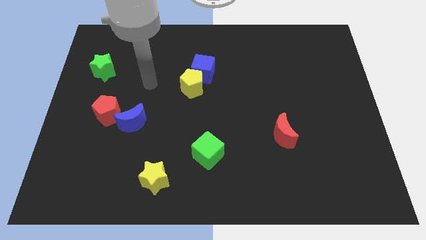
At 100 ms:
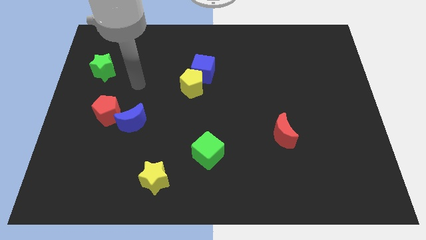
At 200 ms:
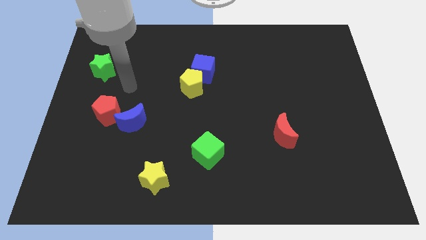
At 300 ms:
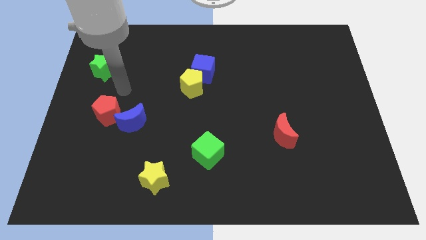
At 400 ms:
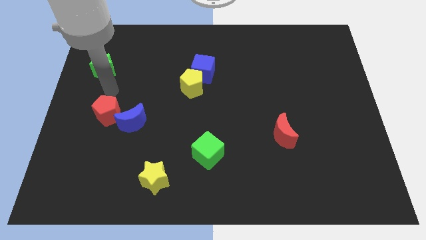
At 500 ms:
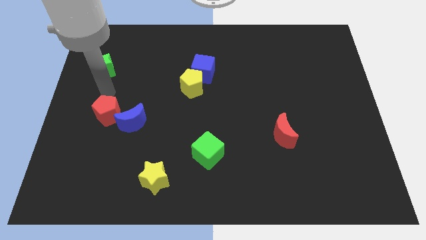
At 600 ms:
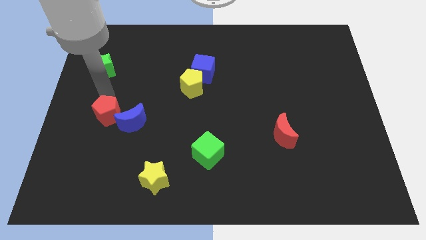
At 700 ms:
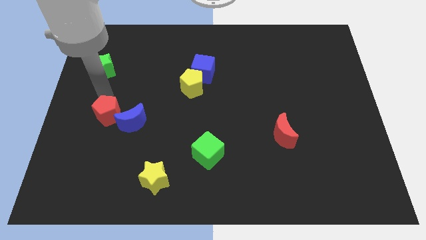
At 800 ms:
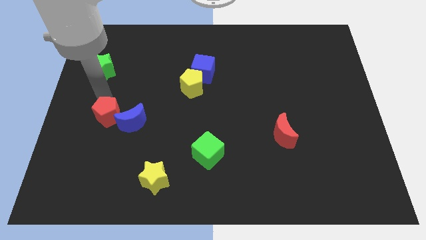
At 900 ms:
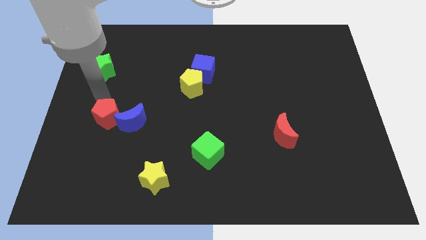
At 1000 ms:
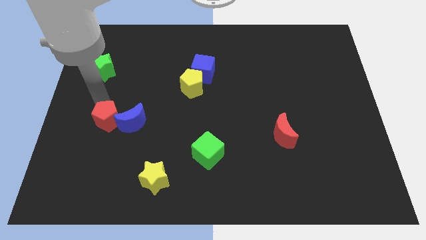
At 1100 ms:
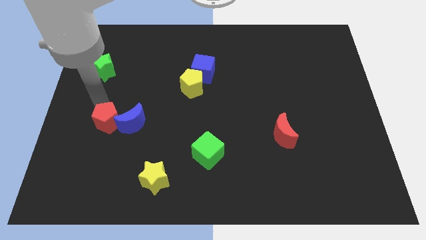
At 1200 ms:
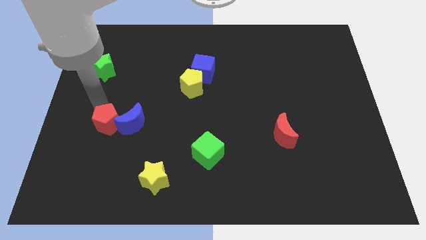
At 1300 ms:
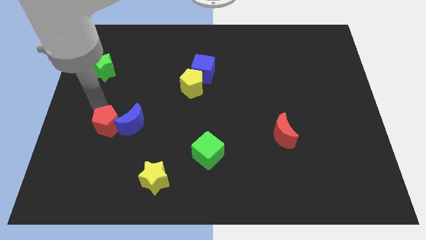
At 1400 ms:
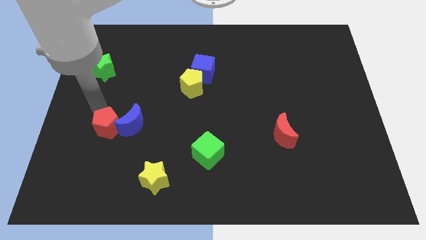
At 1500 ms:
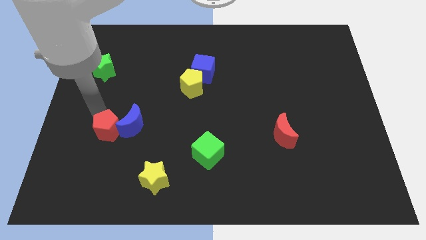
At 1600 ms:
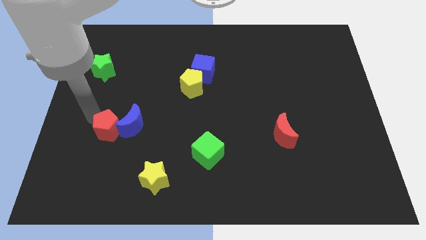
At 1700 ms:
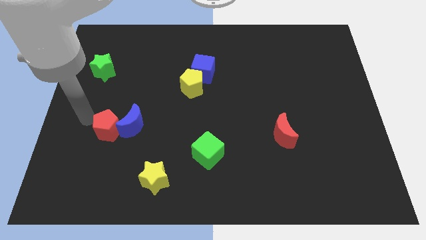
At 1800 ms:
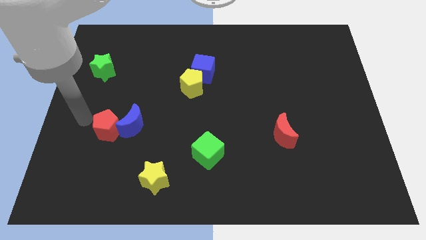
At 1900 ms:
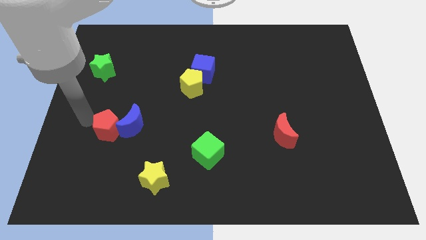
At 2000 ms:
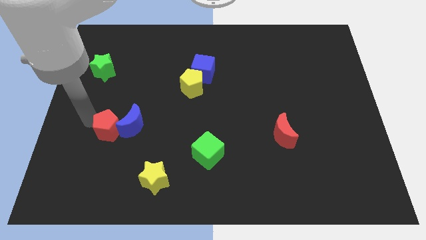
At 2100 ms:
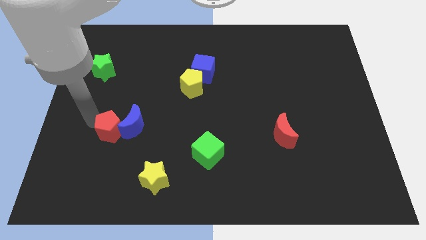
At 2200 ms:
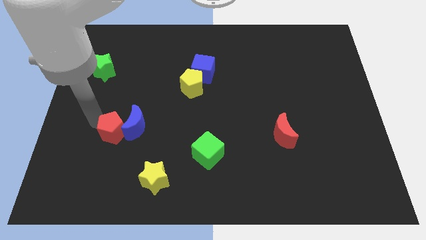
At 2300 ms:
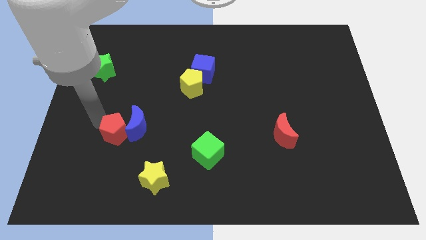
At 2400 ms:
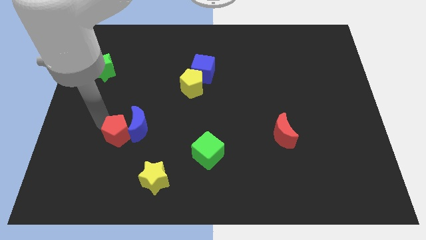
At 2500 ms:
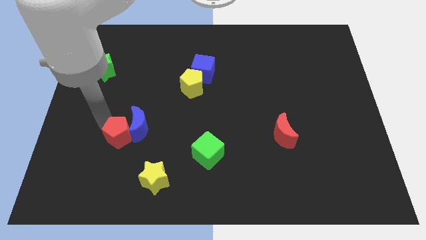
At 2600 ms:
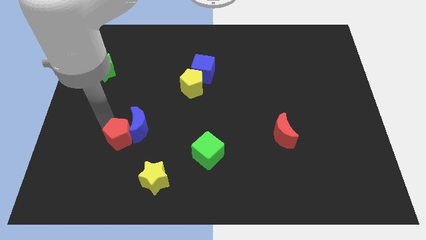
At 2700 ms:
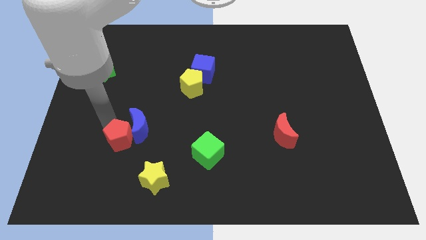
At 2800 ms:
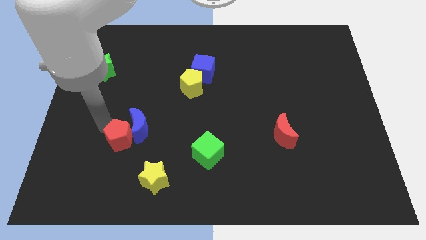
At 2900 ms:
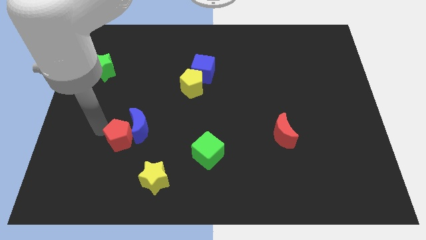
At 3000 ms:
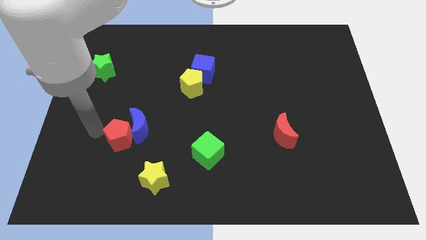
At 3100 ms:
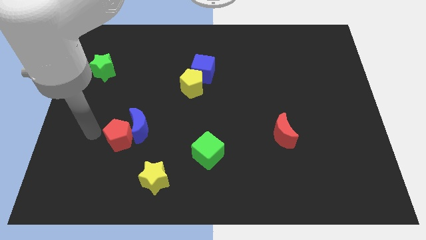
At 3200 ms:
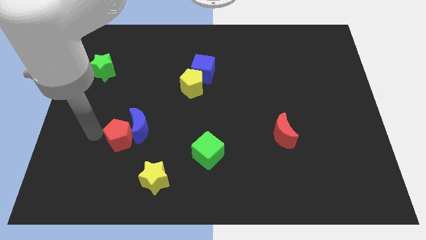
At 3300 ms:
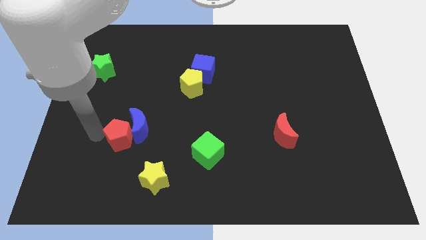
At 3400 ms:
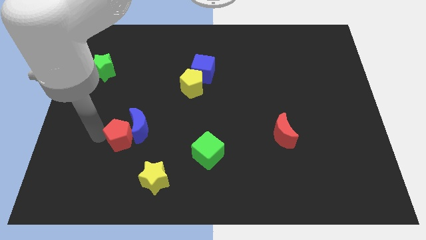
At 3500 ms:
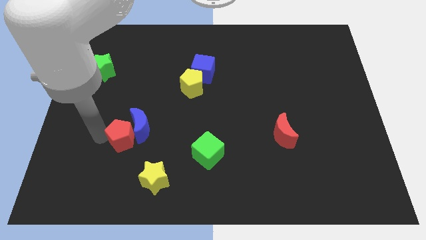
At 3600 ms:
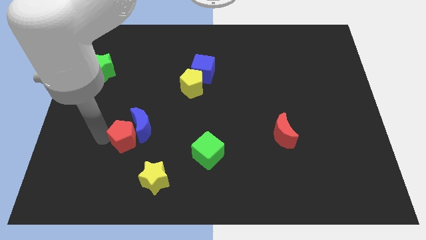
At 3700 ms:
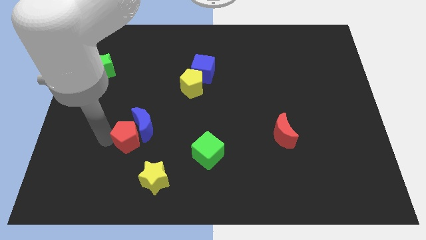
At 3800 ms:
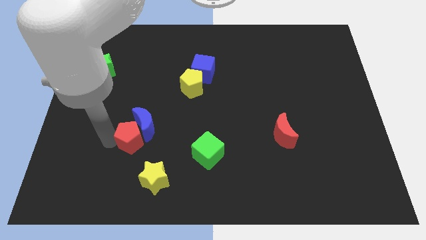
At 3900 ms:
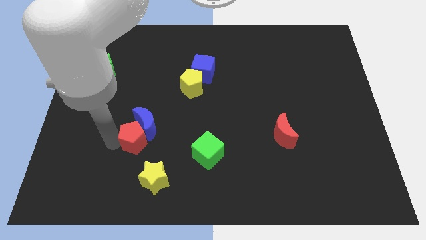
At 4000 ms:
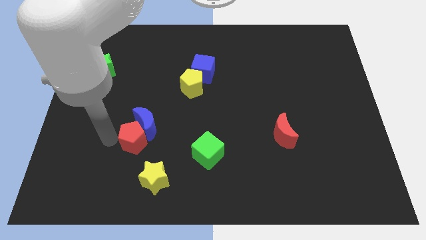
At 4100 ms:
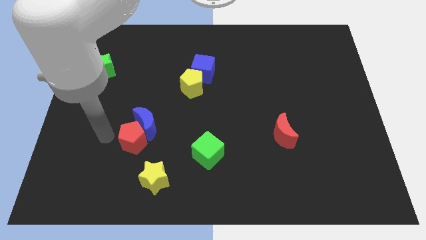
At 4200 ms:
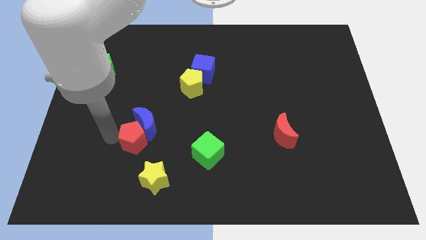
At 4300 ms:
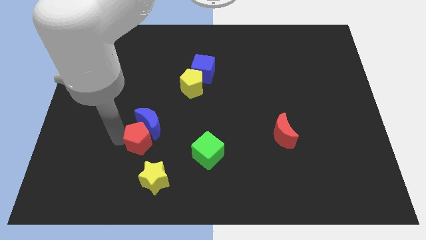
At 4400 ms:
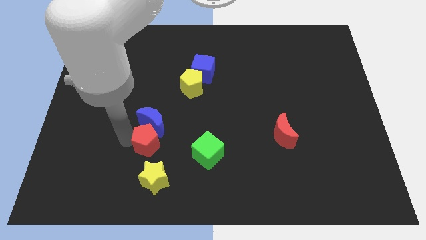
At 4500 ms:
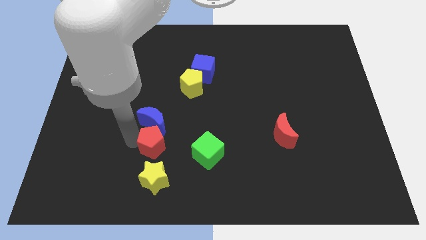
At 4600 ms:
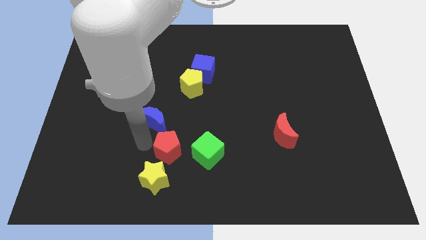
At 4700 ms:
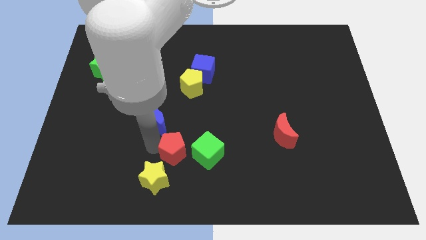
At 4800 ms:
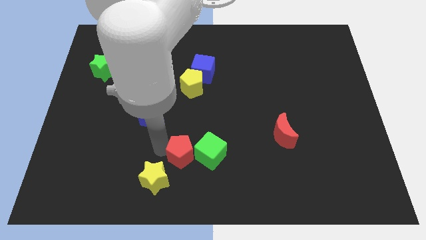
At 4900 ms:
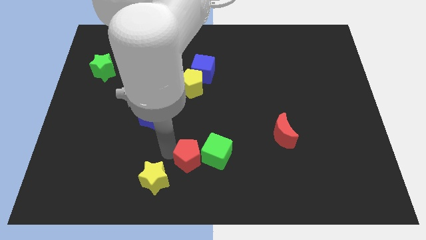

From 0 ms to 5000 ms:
push the red pentagon to the green cube

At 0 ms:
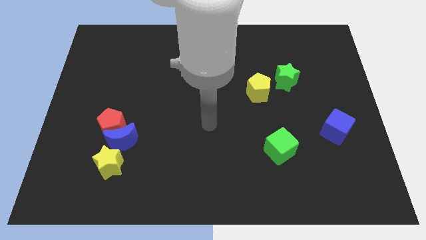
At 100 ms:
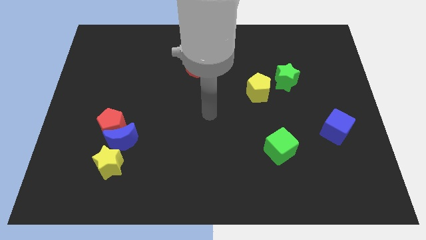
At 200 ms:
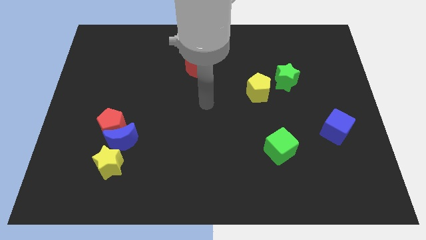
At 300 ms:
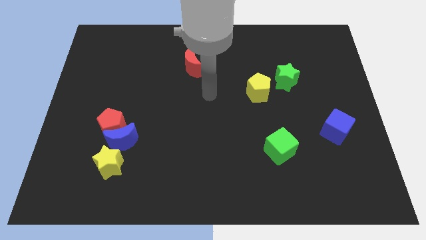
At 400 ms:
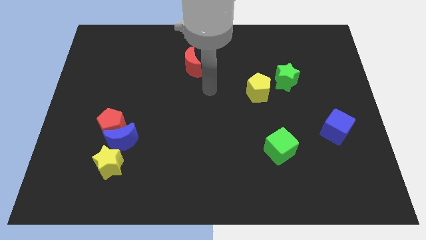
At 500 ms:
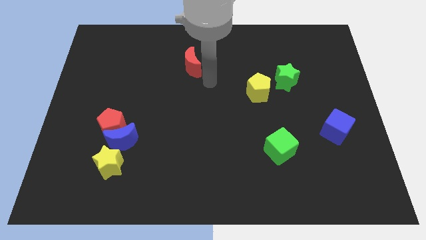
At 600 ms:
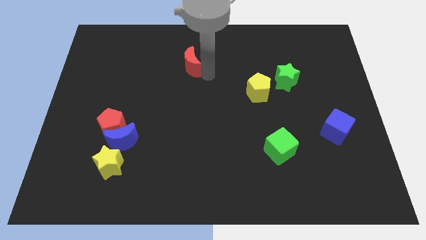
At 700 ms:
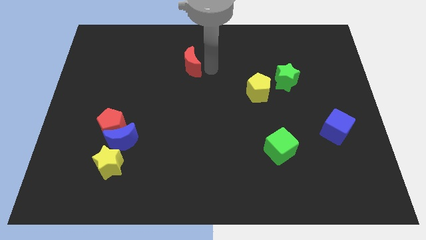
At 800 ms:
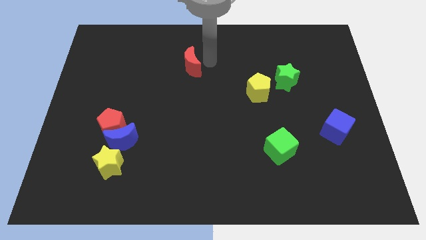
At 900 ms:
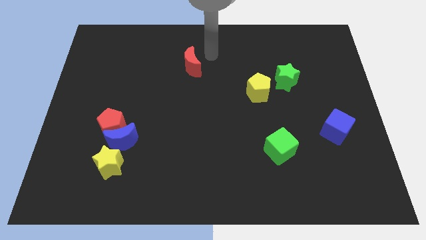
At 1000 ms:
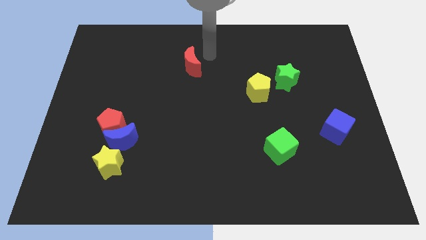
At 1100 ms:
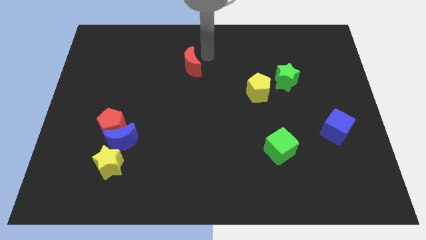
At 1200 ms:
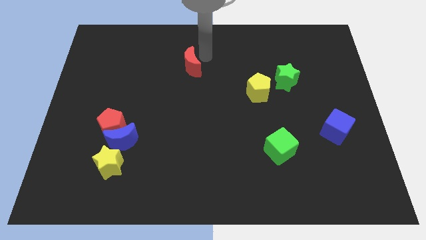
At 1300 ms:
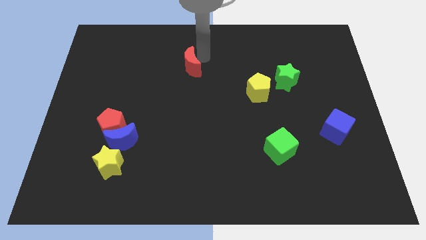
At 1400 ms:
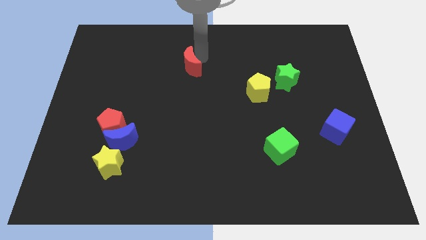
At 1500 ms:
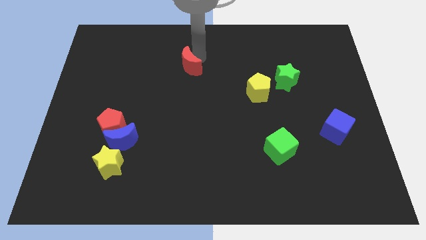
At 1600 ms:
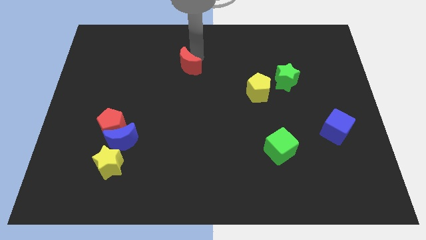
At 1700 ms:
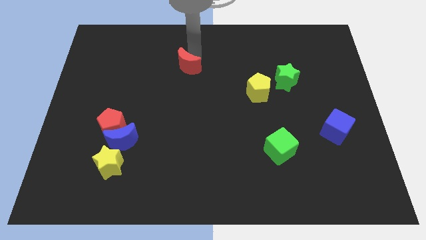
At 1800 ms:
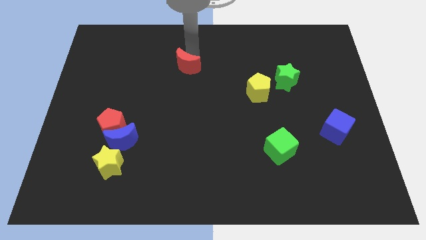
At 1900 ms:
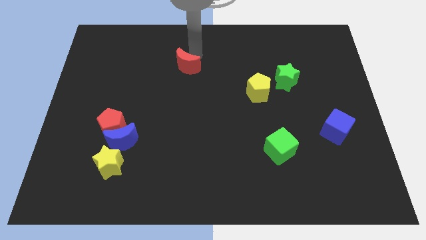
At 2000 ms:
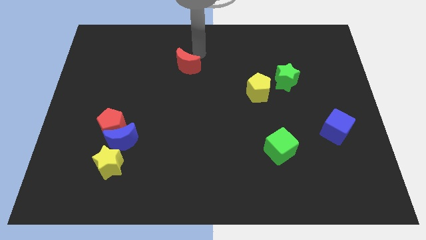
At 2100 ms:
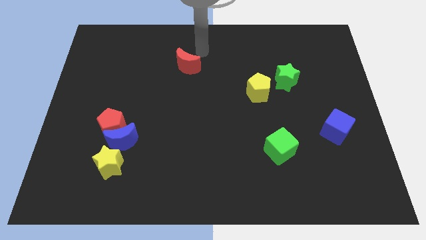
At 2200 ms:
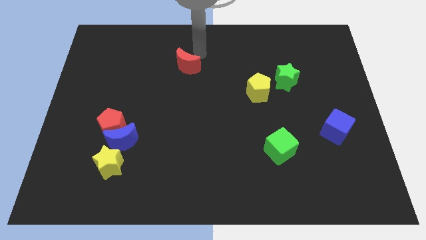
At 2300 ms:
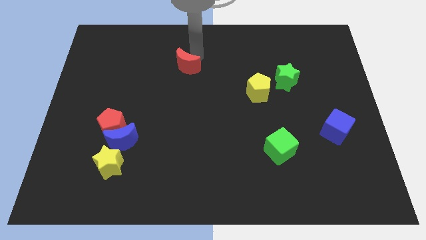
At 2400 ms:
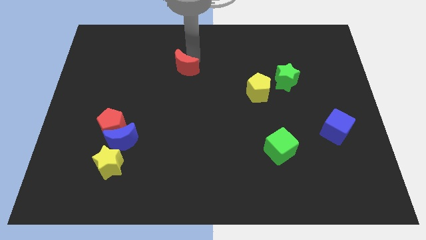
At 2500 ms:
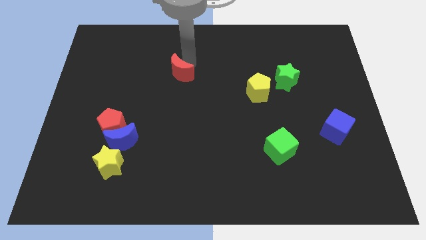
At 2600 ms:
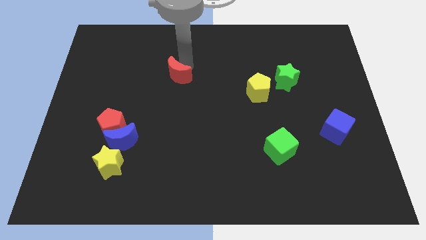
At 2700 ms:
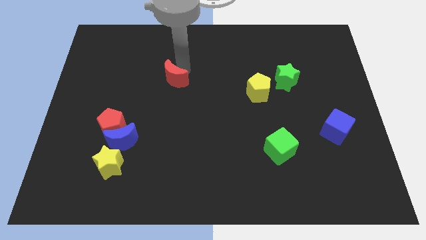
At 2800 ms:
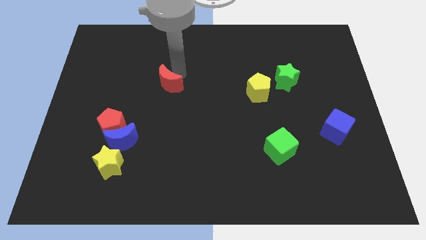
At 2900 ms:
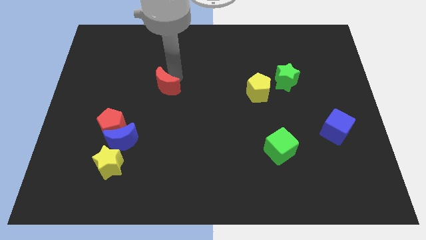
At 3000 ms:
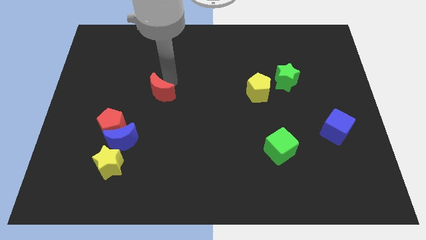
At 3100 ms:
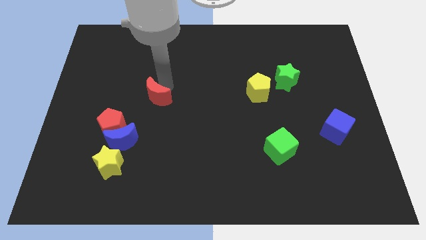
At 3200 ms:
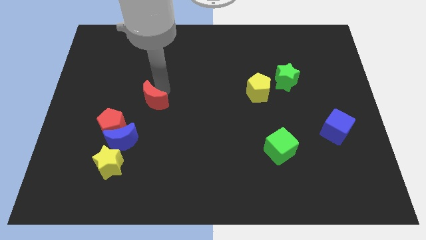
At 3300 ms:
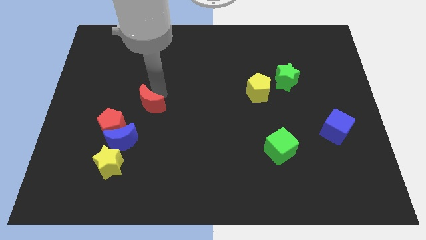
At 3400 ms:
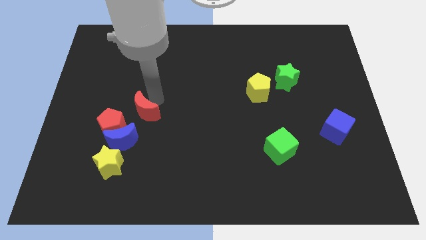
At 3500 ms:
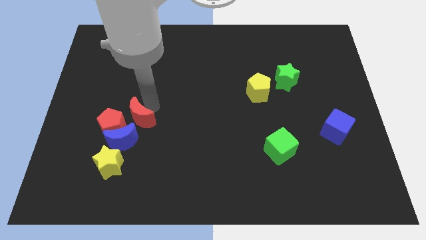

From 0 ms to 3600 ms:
slide the red moon next to the red pentagon
